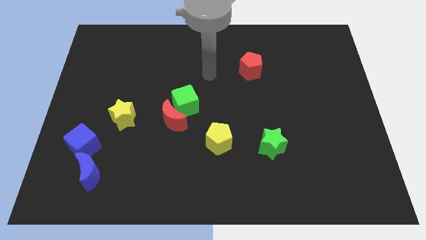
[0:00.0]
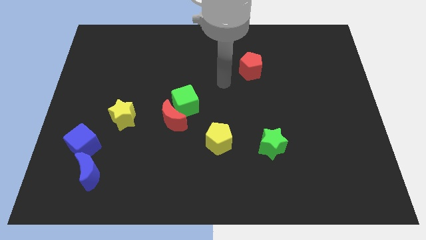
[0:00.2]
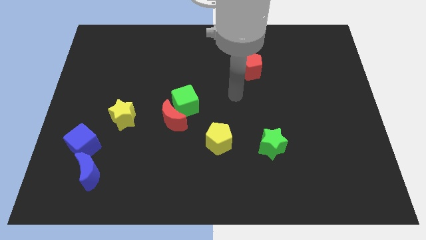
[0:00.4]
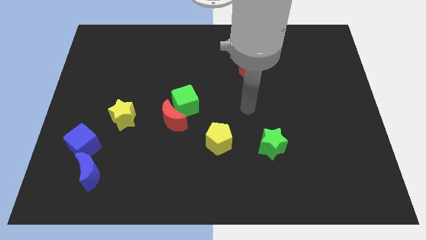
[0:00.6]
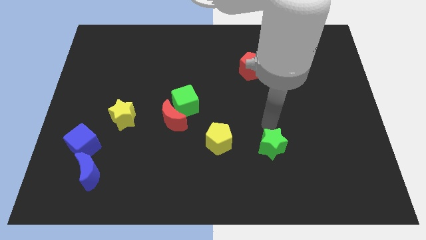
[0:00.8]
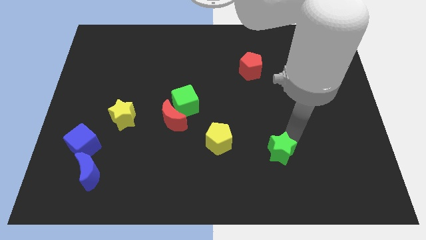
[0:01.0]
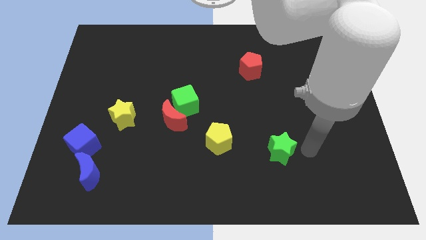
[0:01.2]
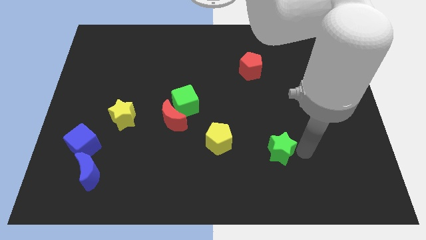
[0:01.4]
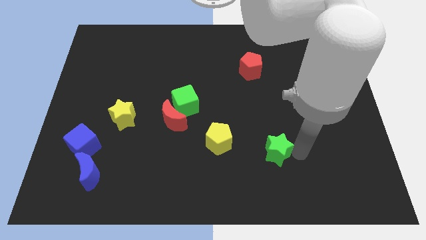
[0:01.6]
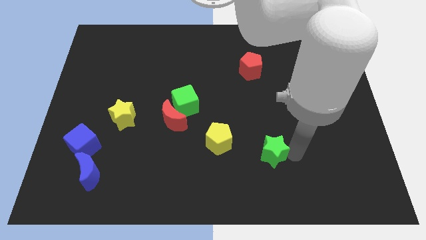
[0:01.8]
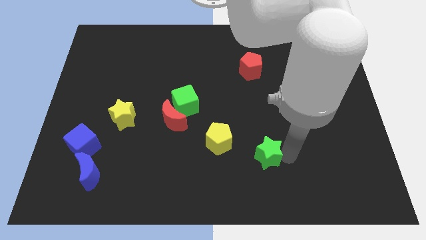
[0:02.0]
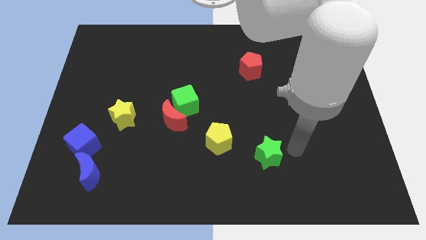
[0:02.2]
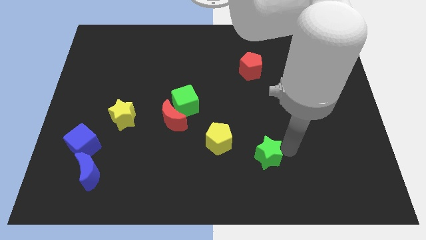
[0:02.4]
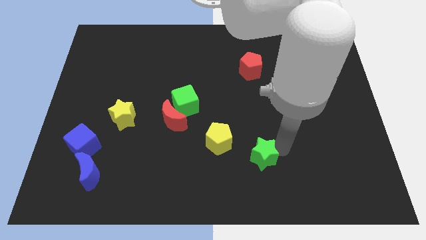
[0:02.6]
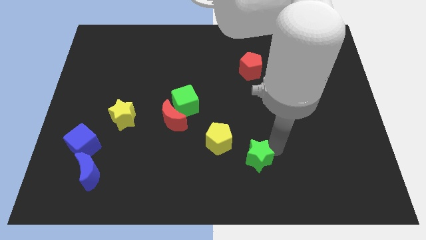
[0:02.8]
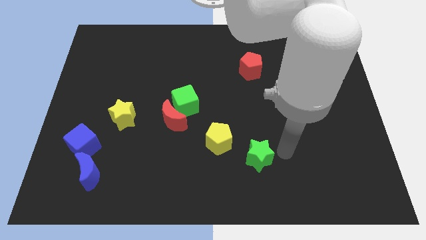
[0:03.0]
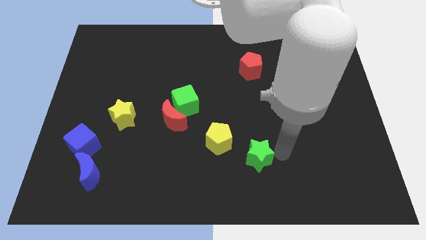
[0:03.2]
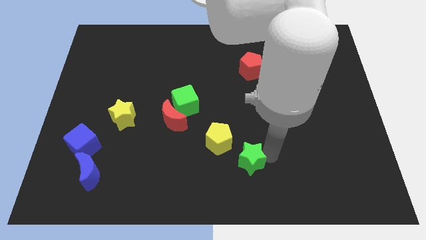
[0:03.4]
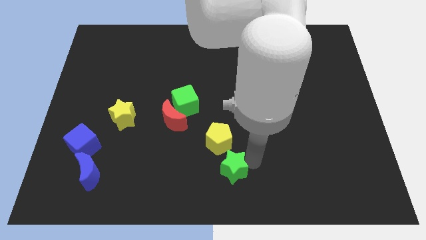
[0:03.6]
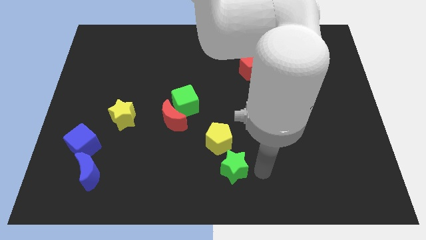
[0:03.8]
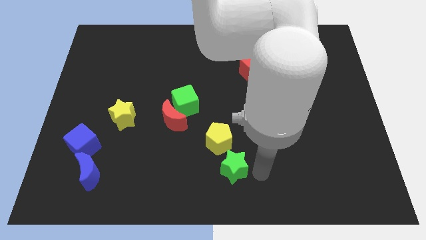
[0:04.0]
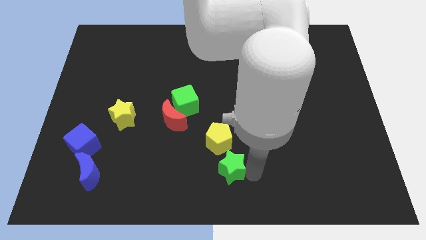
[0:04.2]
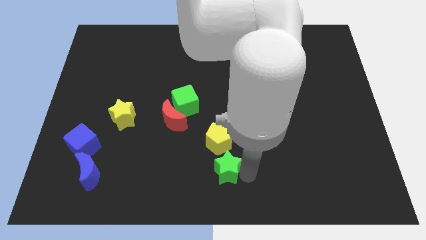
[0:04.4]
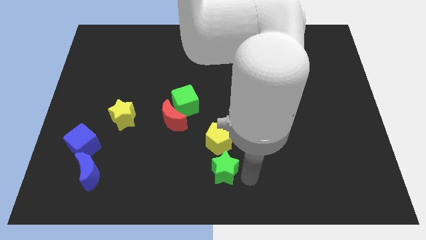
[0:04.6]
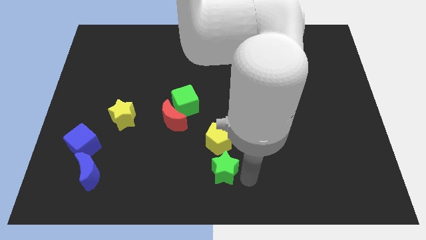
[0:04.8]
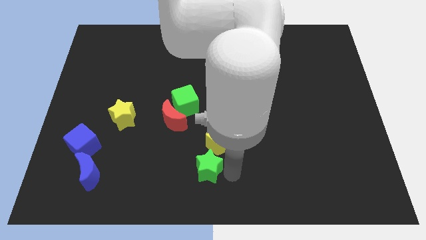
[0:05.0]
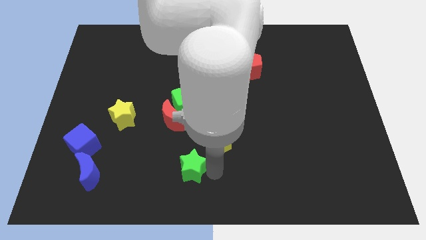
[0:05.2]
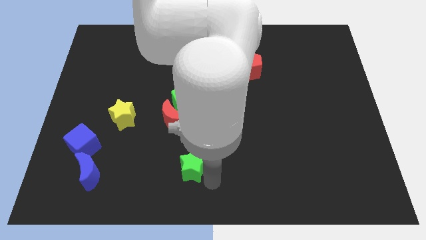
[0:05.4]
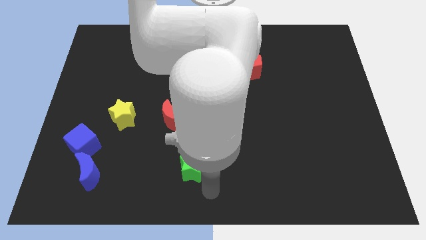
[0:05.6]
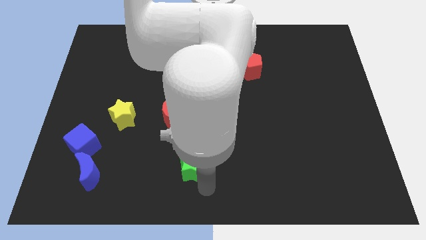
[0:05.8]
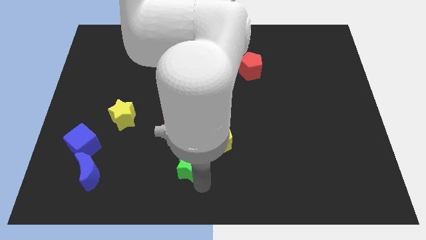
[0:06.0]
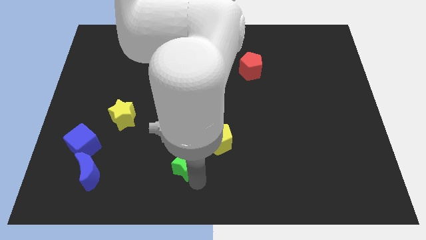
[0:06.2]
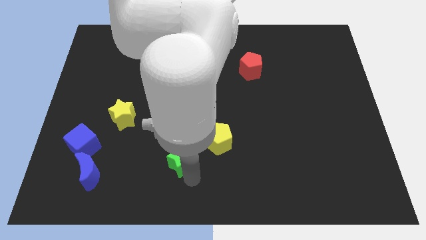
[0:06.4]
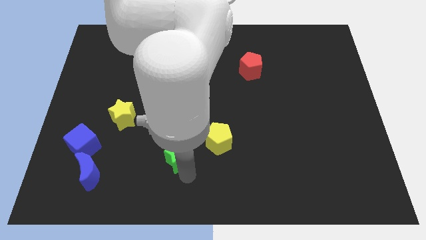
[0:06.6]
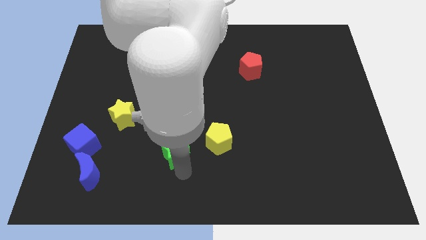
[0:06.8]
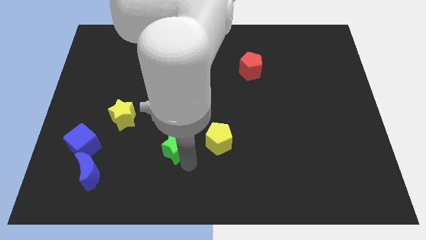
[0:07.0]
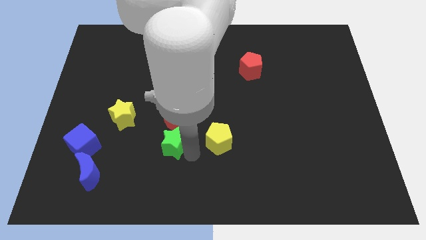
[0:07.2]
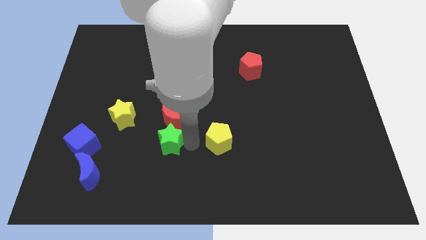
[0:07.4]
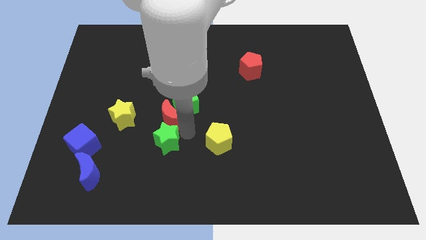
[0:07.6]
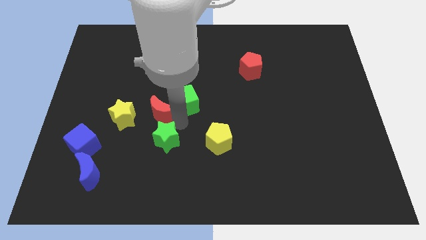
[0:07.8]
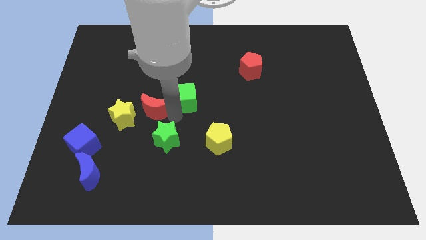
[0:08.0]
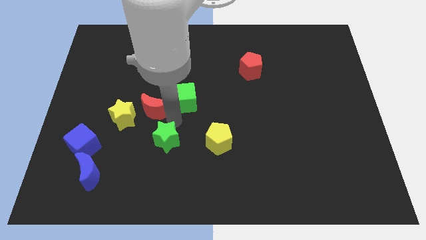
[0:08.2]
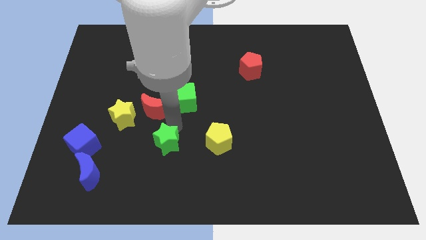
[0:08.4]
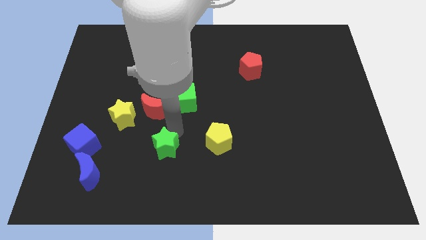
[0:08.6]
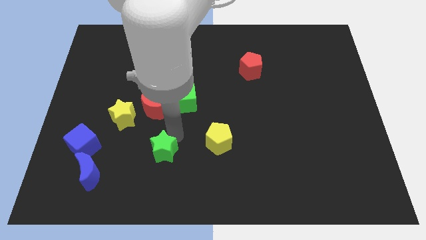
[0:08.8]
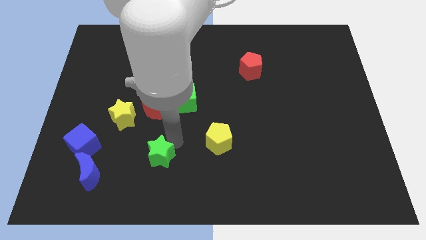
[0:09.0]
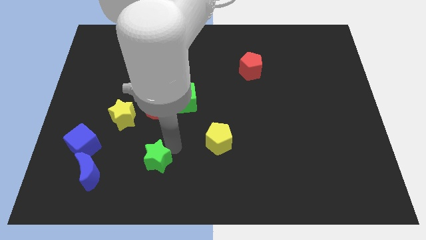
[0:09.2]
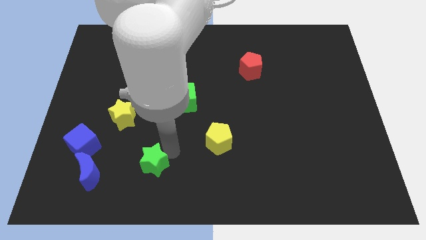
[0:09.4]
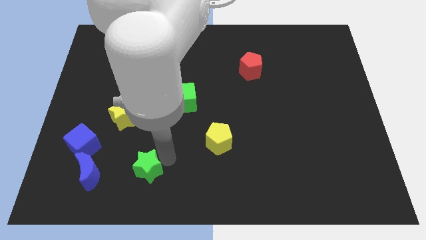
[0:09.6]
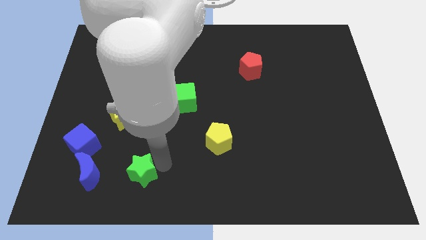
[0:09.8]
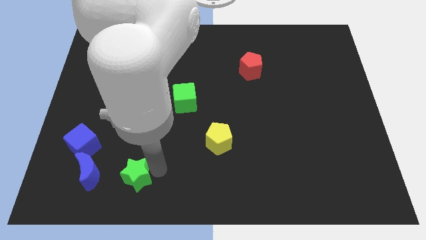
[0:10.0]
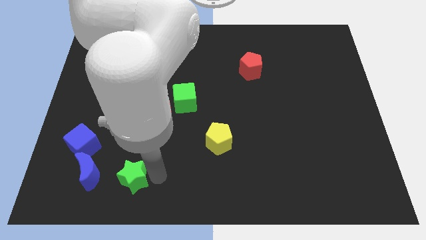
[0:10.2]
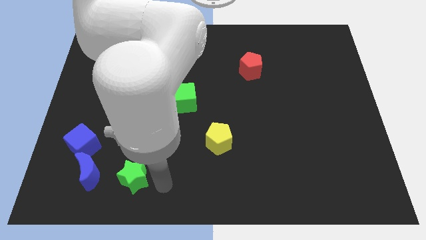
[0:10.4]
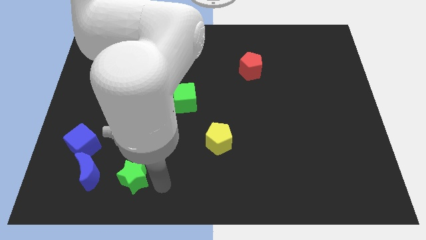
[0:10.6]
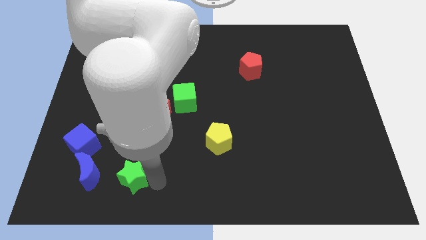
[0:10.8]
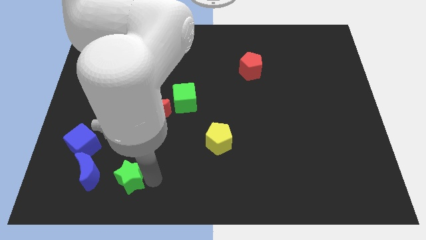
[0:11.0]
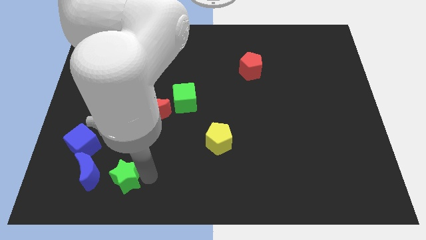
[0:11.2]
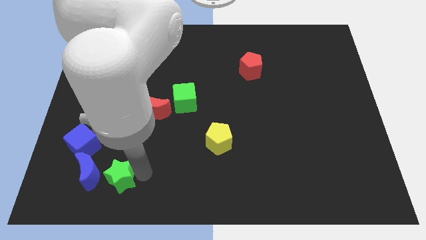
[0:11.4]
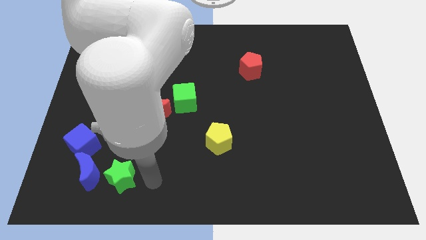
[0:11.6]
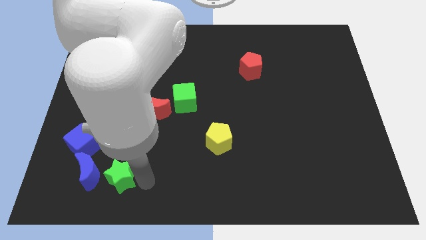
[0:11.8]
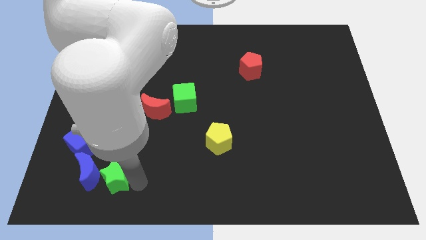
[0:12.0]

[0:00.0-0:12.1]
push the green star next to the blue moon
